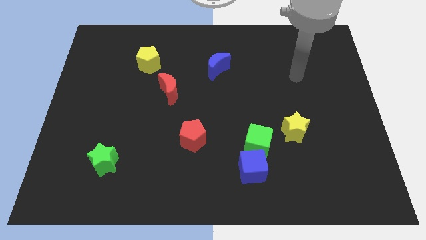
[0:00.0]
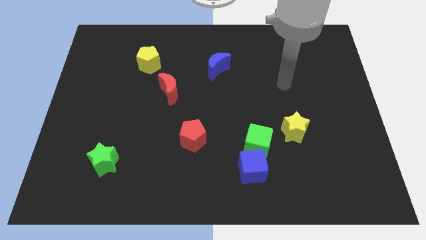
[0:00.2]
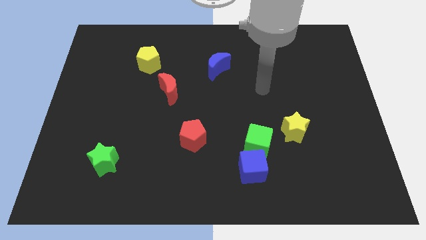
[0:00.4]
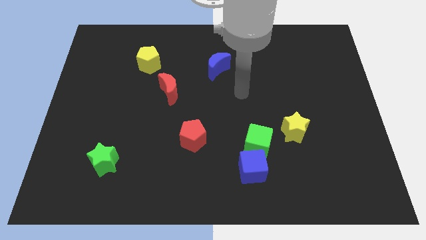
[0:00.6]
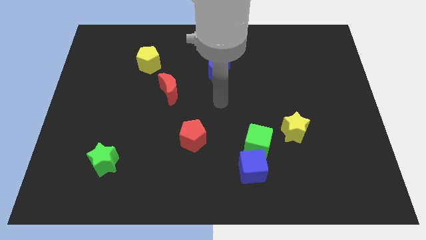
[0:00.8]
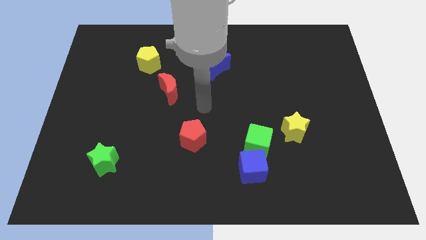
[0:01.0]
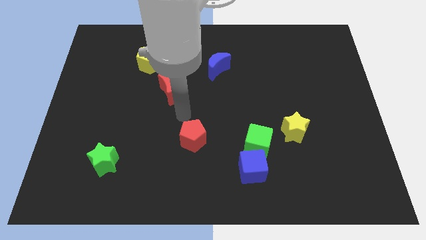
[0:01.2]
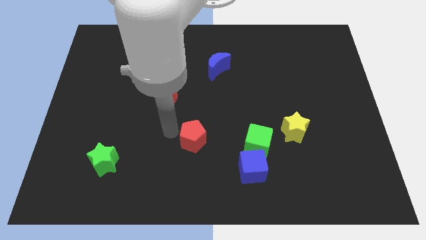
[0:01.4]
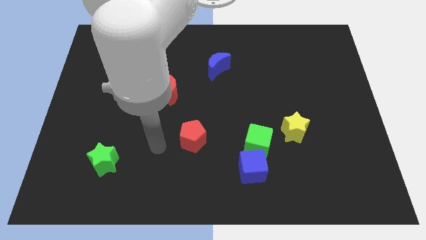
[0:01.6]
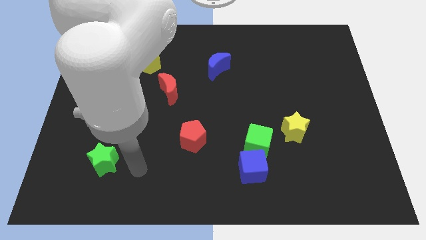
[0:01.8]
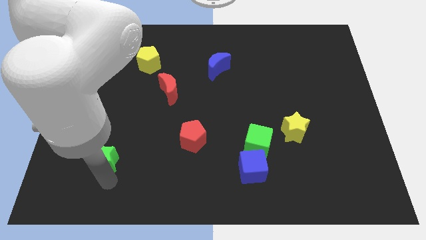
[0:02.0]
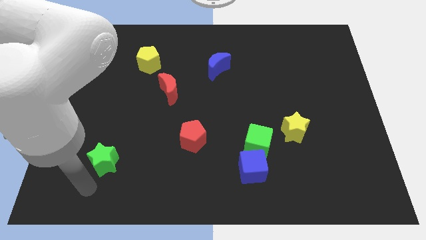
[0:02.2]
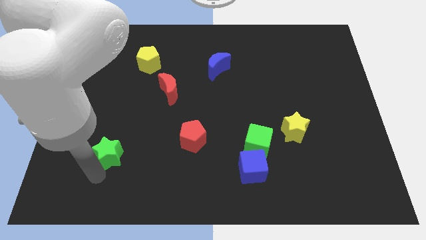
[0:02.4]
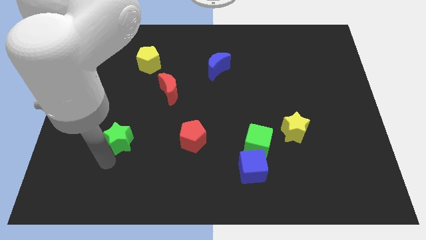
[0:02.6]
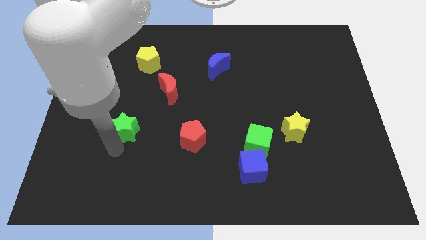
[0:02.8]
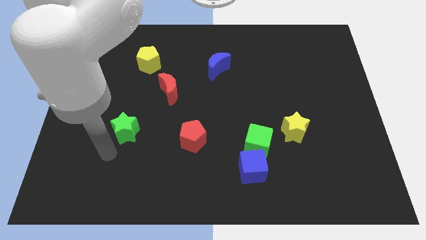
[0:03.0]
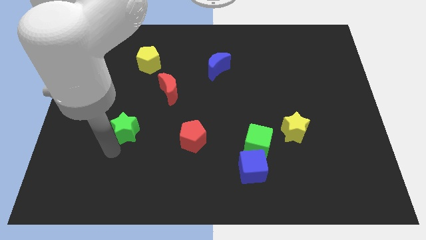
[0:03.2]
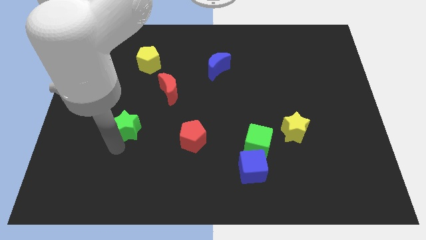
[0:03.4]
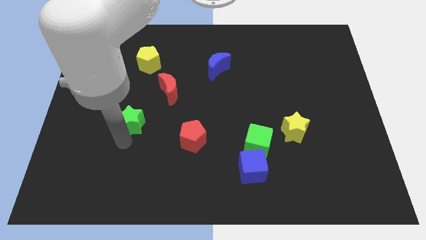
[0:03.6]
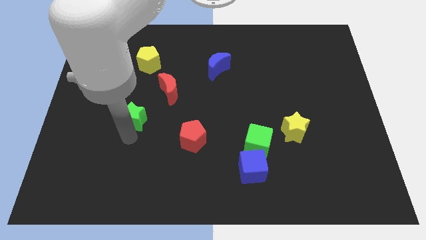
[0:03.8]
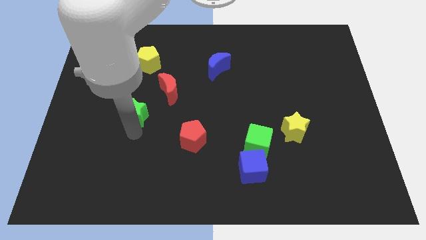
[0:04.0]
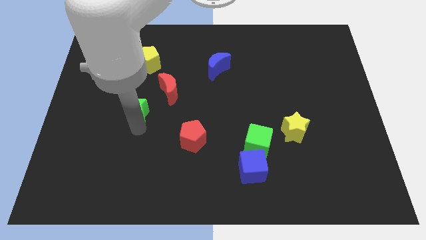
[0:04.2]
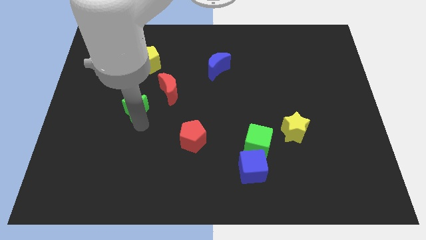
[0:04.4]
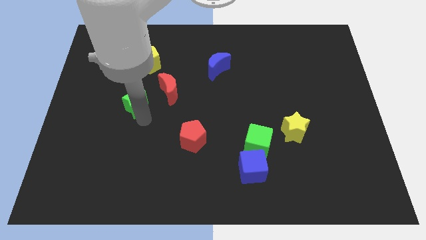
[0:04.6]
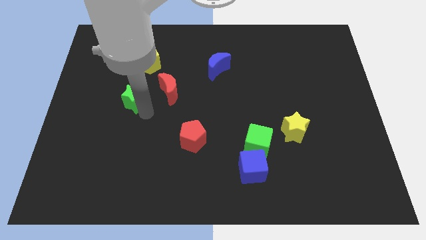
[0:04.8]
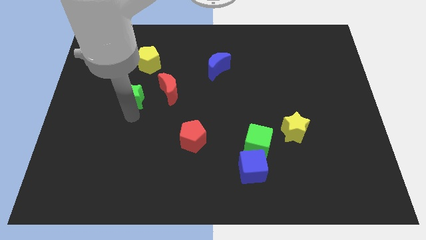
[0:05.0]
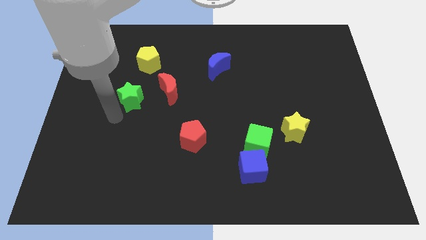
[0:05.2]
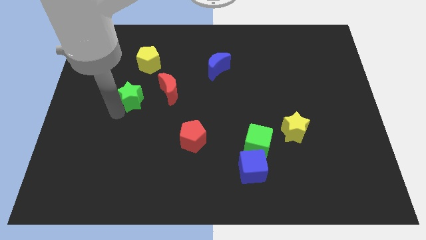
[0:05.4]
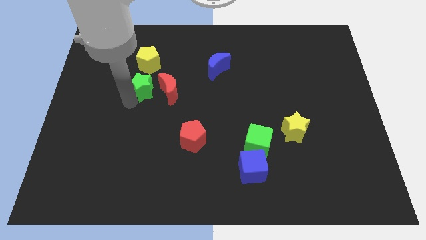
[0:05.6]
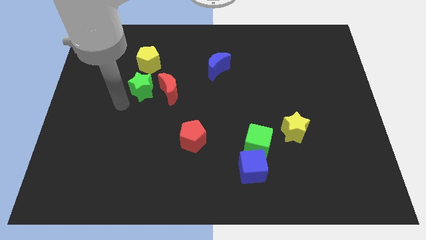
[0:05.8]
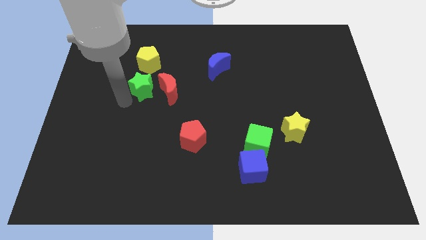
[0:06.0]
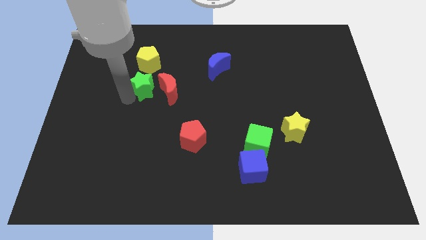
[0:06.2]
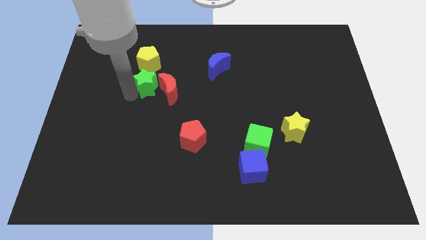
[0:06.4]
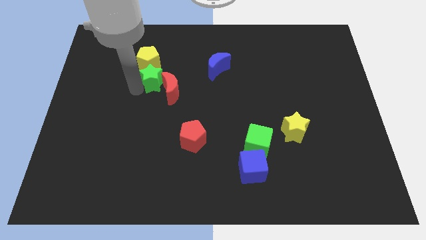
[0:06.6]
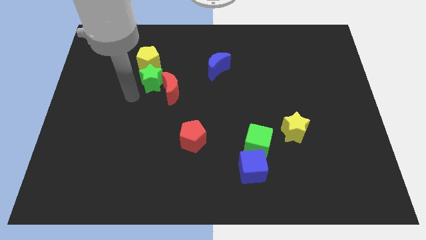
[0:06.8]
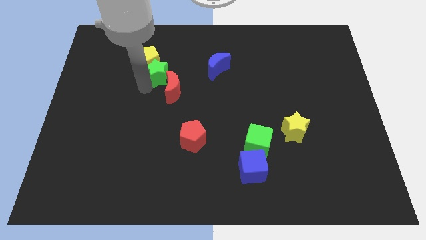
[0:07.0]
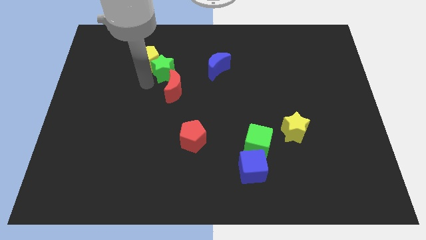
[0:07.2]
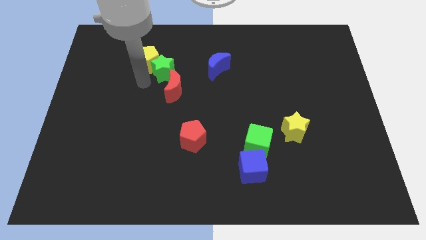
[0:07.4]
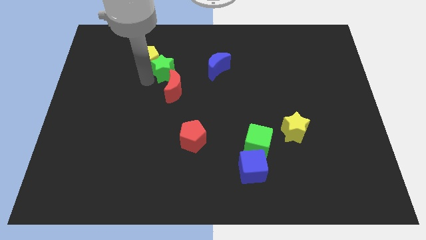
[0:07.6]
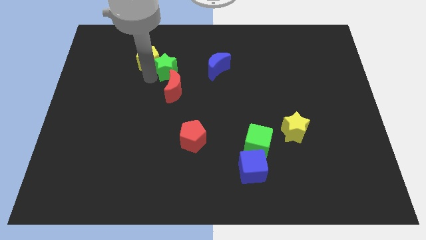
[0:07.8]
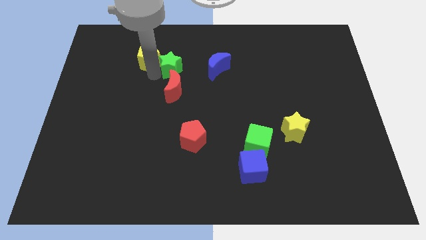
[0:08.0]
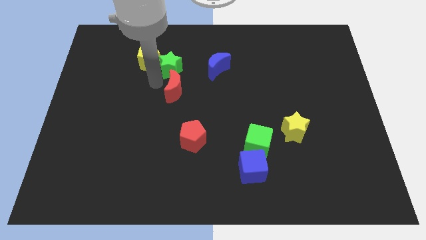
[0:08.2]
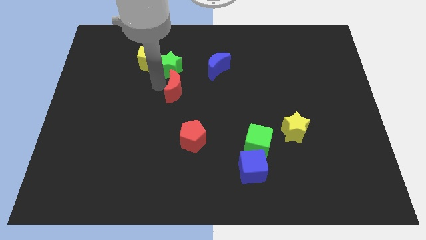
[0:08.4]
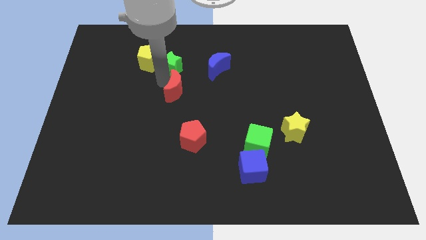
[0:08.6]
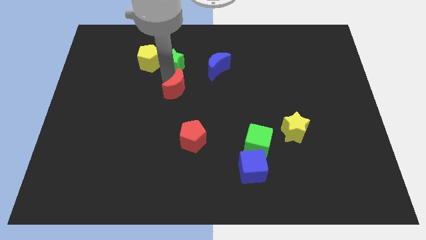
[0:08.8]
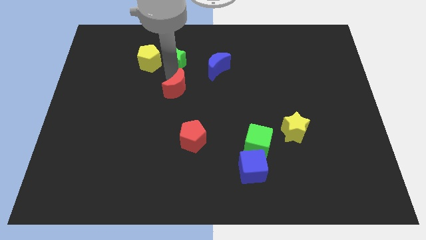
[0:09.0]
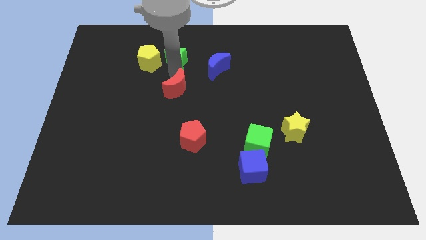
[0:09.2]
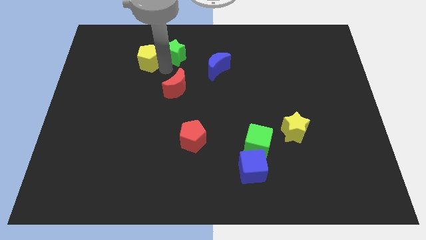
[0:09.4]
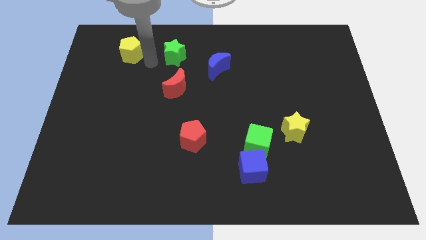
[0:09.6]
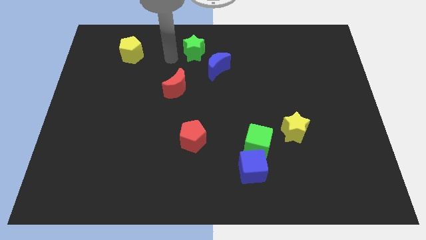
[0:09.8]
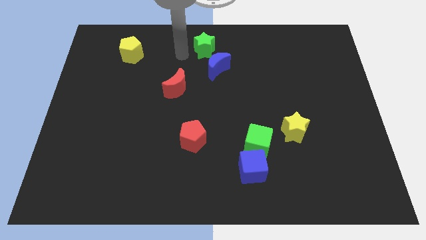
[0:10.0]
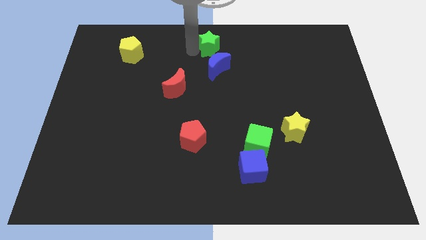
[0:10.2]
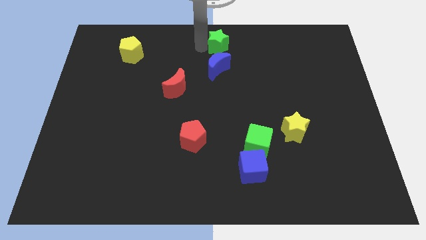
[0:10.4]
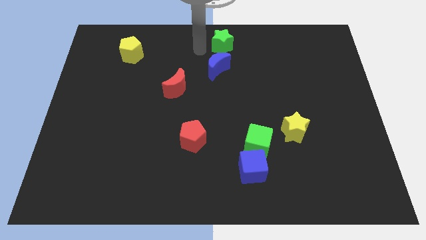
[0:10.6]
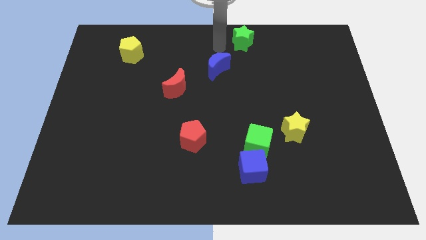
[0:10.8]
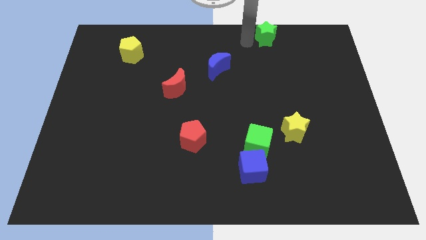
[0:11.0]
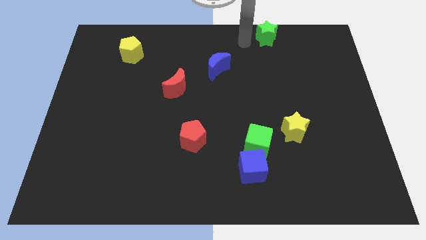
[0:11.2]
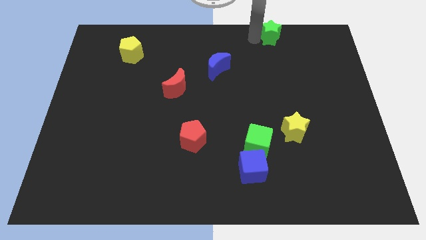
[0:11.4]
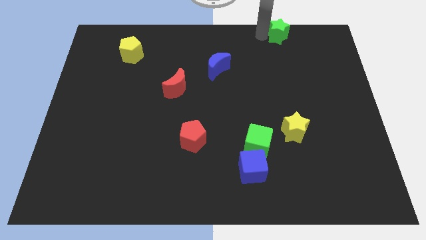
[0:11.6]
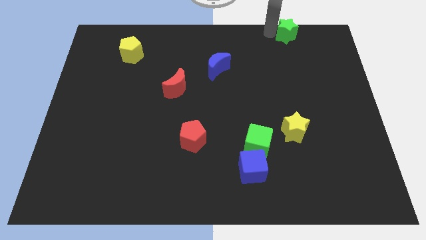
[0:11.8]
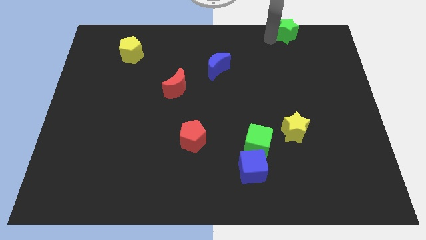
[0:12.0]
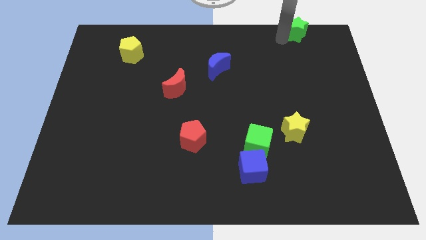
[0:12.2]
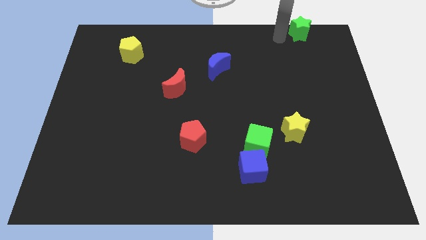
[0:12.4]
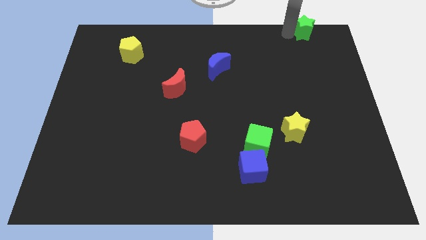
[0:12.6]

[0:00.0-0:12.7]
move the green star to the top right of the board
